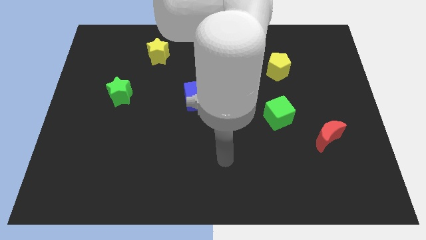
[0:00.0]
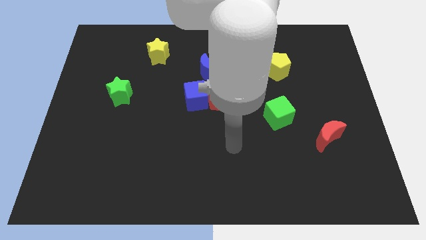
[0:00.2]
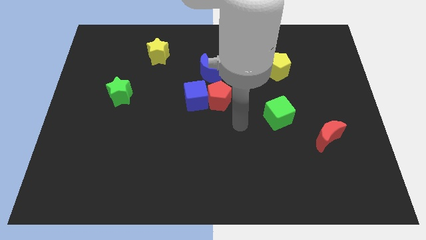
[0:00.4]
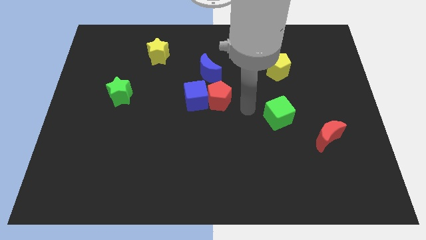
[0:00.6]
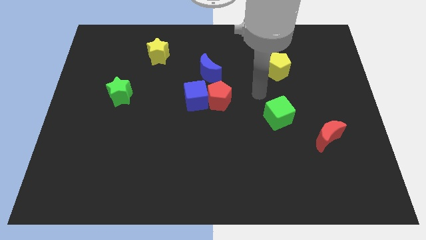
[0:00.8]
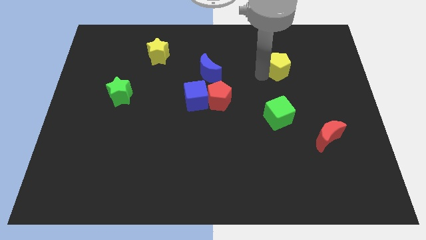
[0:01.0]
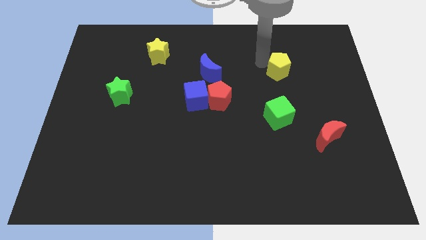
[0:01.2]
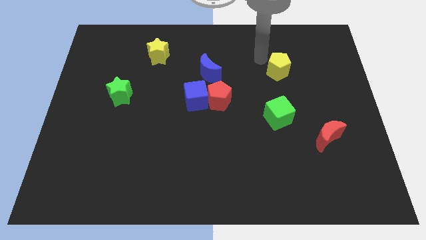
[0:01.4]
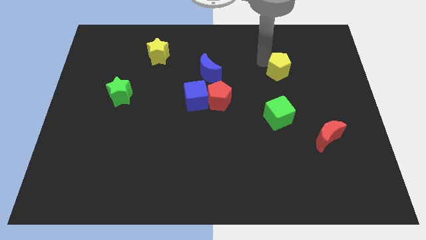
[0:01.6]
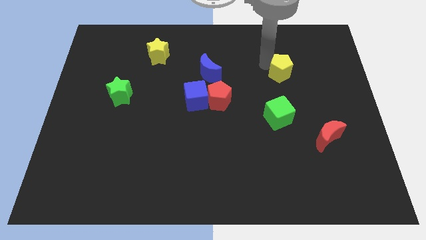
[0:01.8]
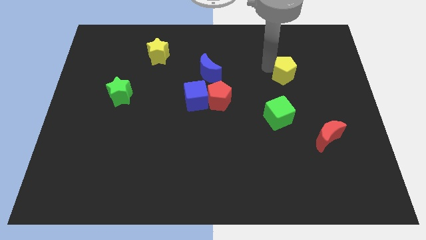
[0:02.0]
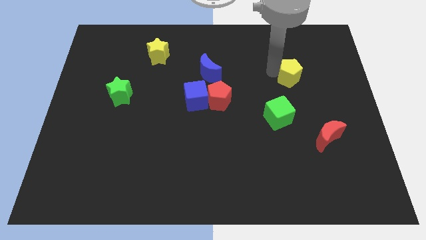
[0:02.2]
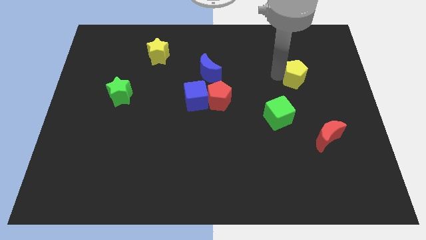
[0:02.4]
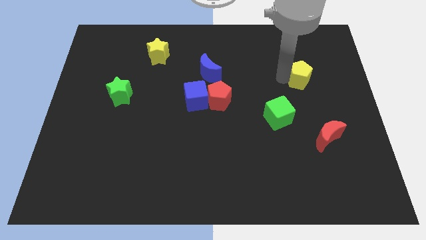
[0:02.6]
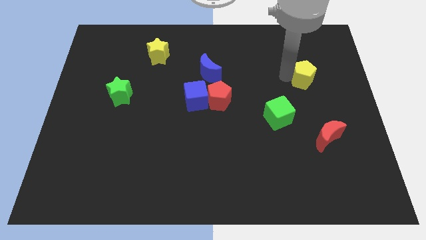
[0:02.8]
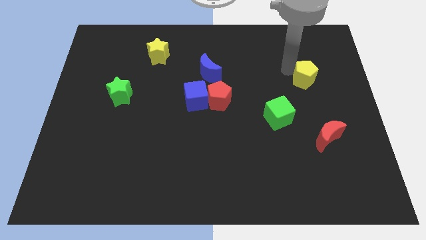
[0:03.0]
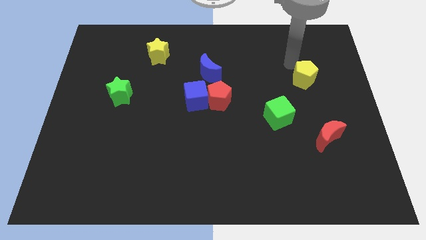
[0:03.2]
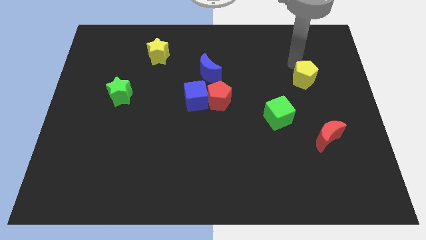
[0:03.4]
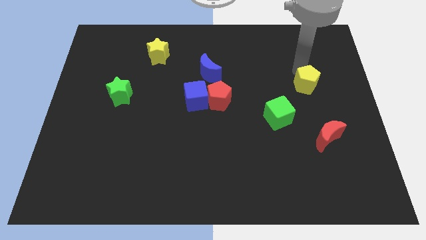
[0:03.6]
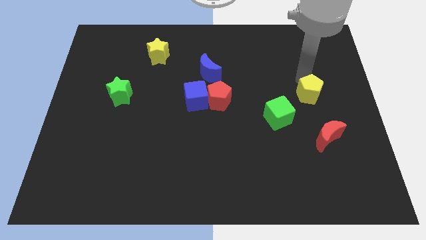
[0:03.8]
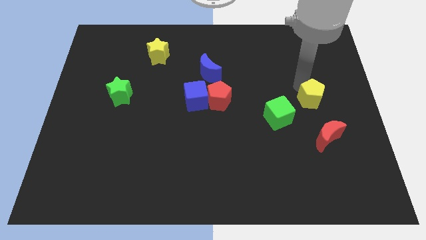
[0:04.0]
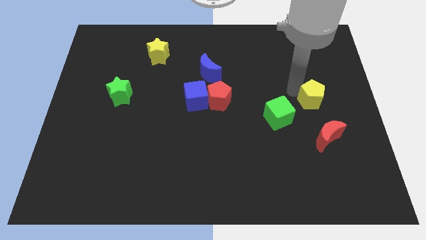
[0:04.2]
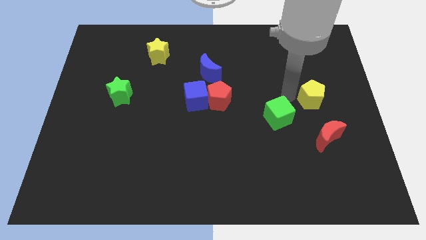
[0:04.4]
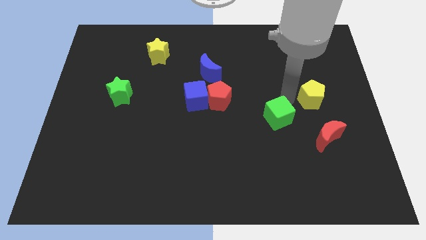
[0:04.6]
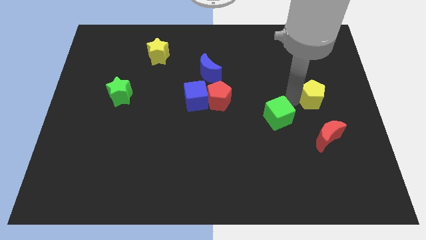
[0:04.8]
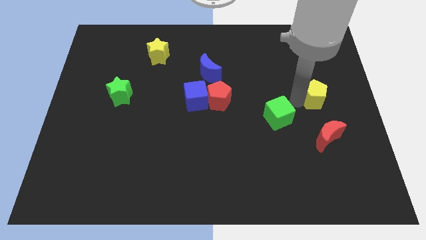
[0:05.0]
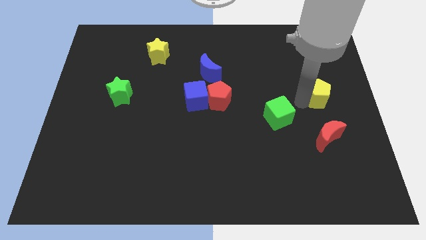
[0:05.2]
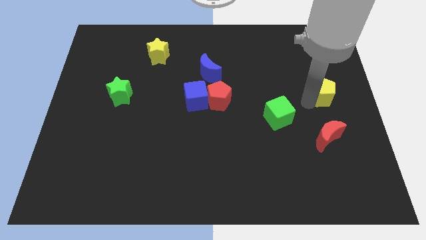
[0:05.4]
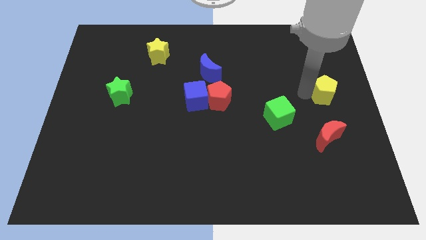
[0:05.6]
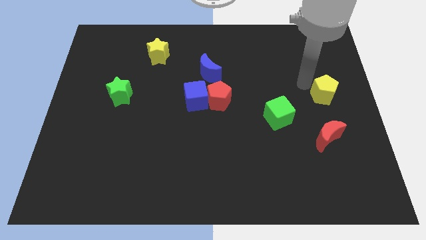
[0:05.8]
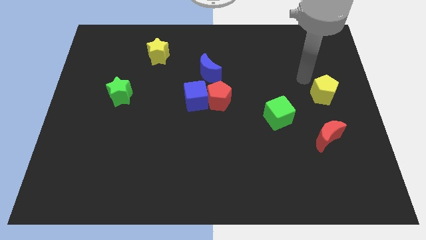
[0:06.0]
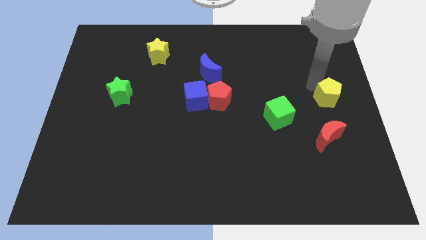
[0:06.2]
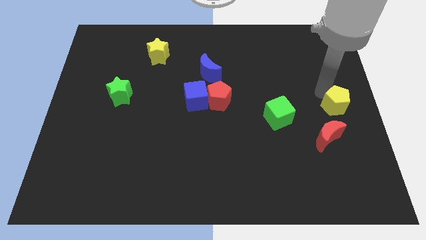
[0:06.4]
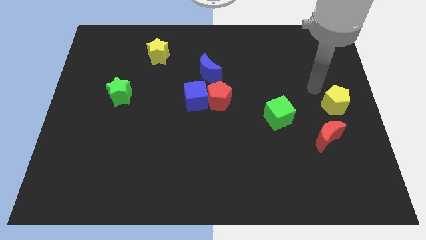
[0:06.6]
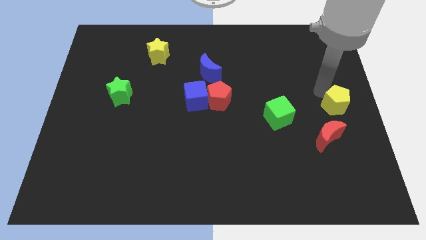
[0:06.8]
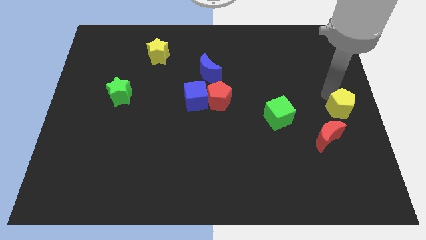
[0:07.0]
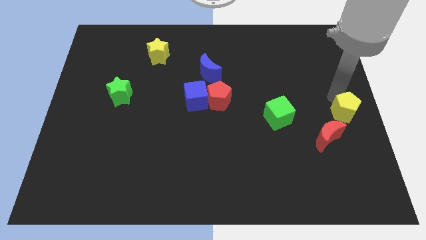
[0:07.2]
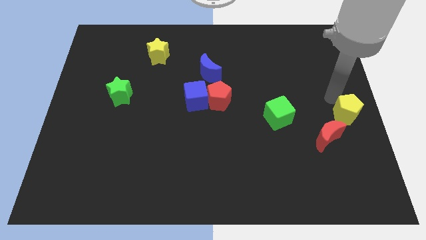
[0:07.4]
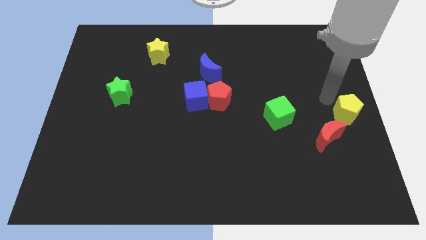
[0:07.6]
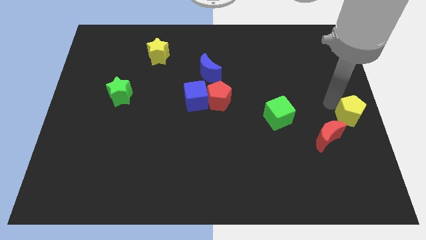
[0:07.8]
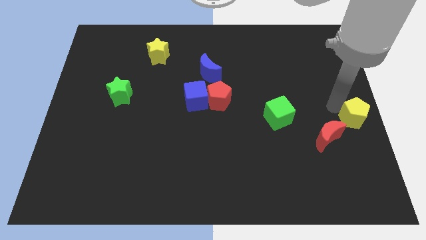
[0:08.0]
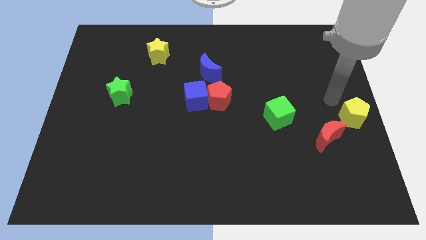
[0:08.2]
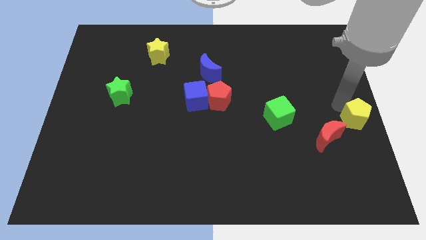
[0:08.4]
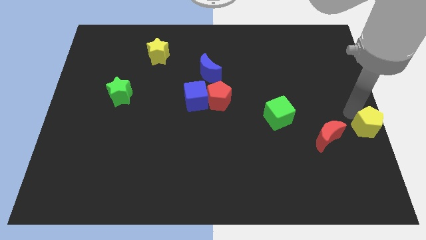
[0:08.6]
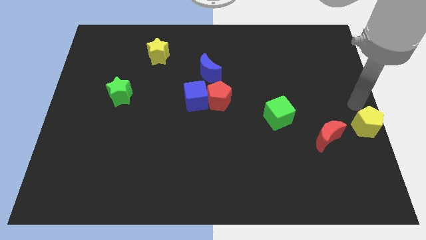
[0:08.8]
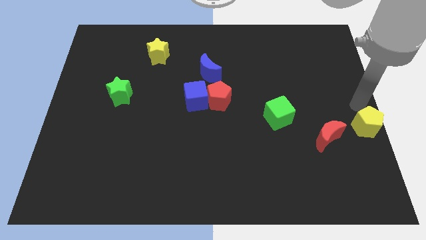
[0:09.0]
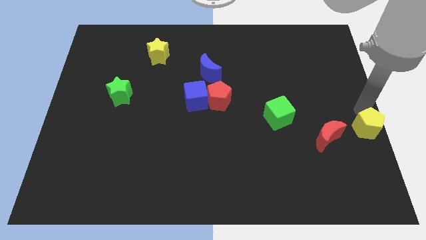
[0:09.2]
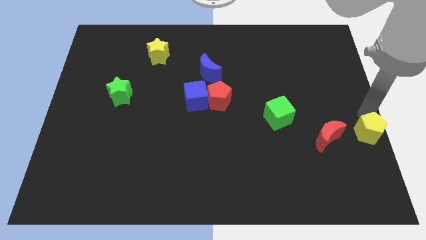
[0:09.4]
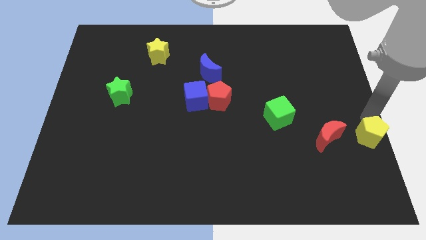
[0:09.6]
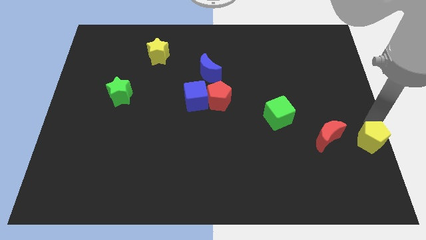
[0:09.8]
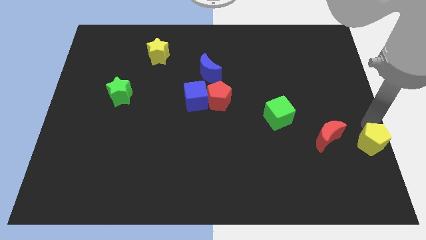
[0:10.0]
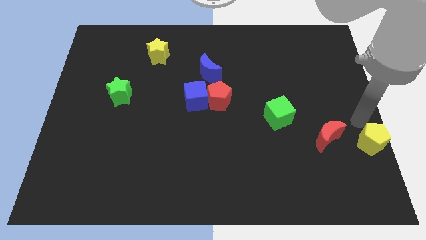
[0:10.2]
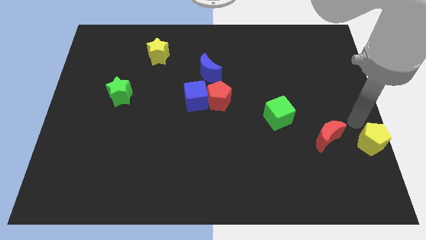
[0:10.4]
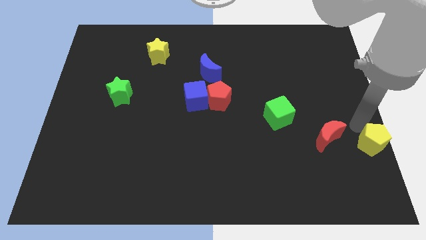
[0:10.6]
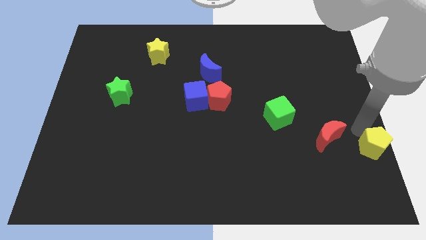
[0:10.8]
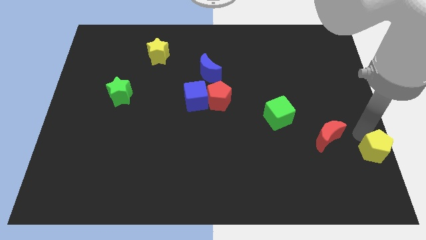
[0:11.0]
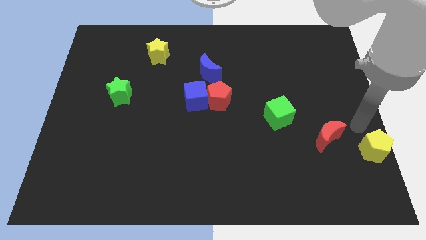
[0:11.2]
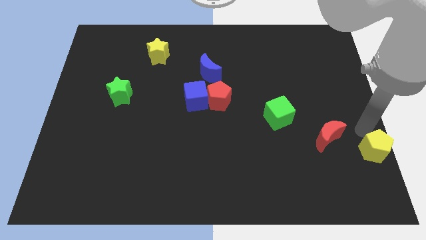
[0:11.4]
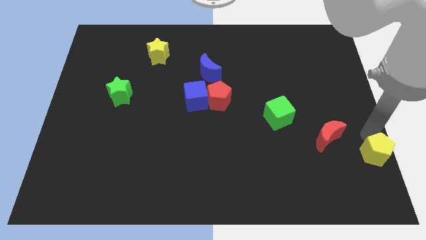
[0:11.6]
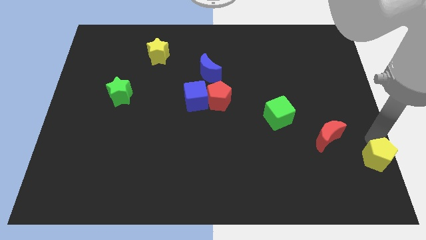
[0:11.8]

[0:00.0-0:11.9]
put the yellow pentagon to the bottom right
